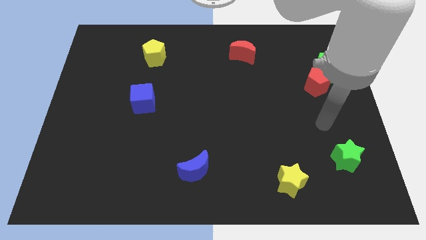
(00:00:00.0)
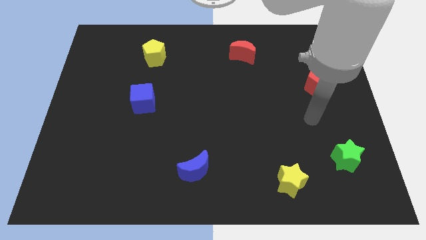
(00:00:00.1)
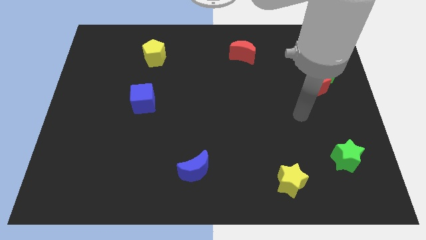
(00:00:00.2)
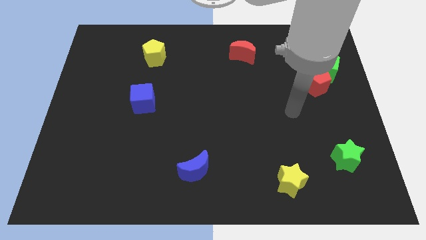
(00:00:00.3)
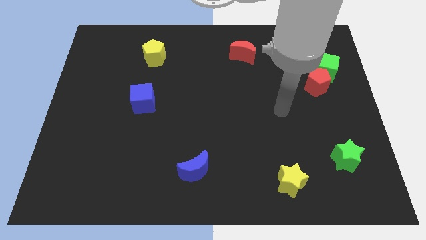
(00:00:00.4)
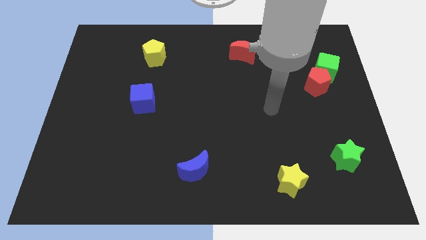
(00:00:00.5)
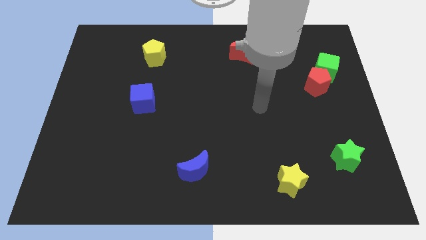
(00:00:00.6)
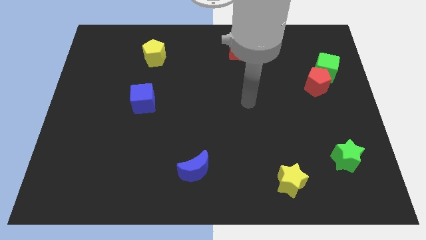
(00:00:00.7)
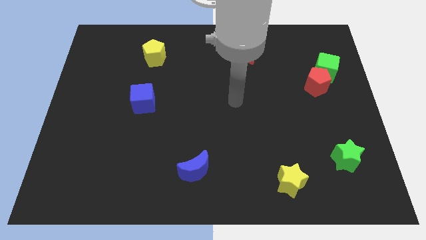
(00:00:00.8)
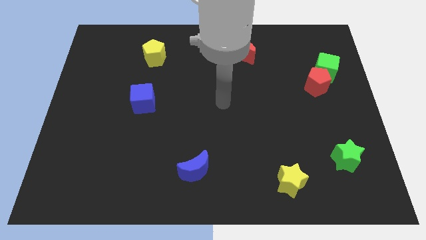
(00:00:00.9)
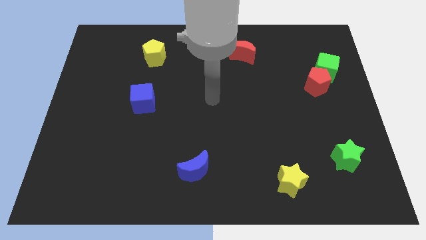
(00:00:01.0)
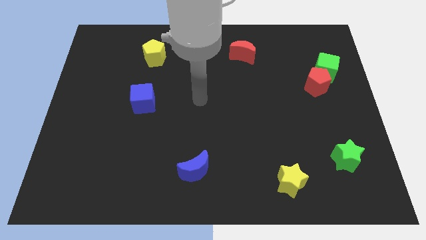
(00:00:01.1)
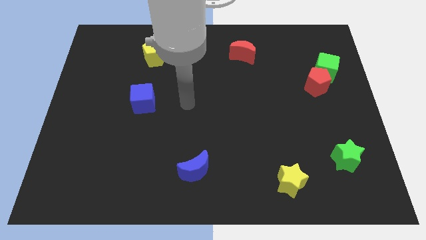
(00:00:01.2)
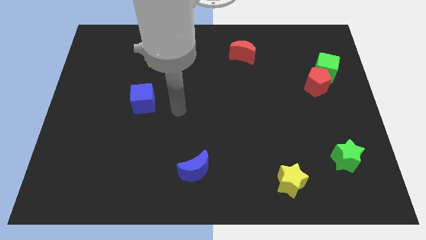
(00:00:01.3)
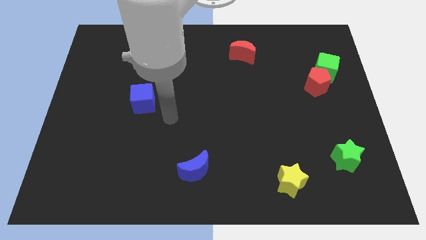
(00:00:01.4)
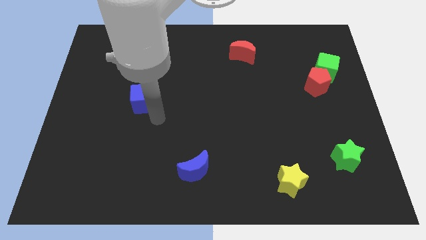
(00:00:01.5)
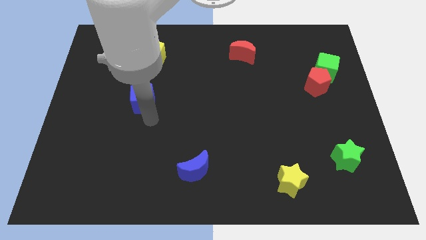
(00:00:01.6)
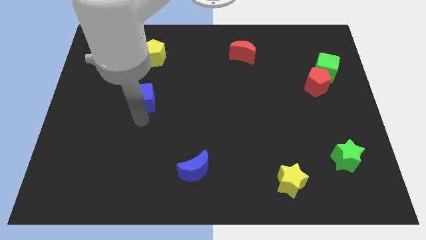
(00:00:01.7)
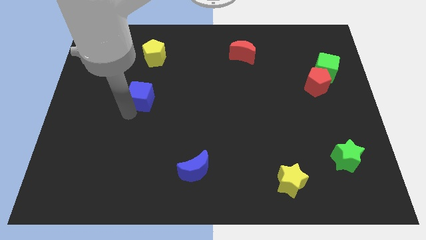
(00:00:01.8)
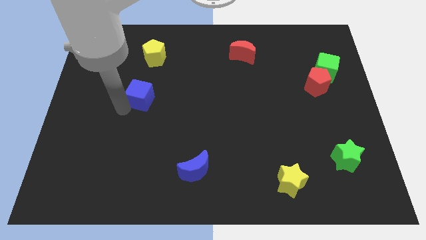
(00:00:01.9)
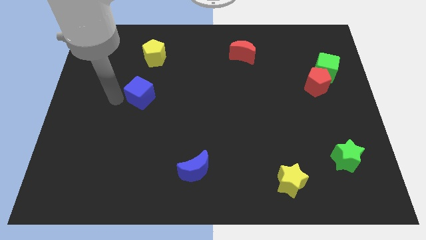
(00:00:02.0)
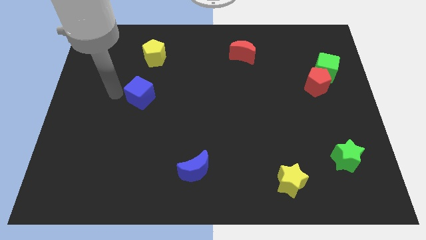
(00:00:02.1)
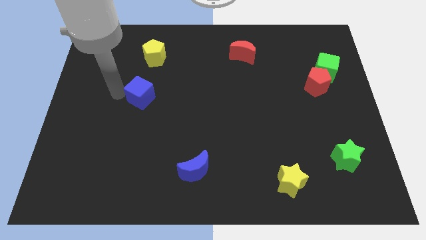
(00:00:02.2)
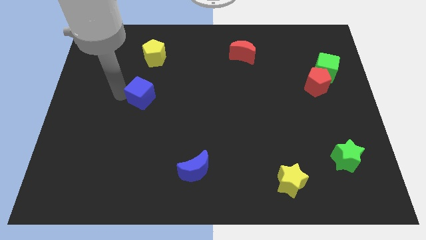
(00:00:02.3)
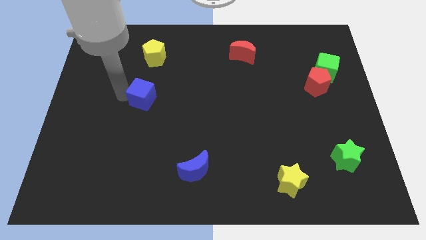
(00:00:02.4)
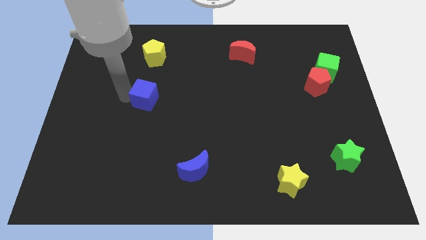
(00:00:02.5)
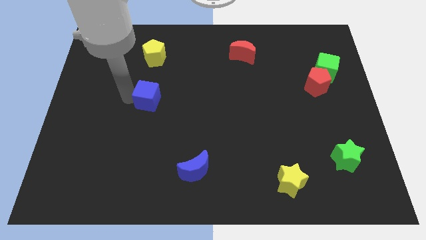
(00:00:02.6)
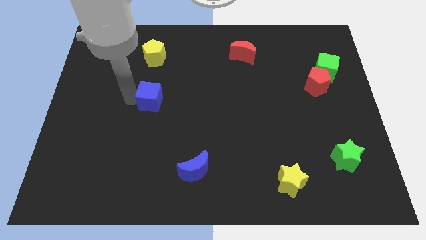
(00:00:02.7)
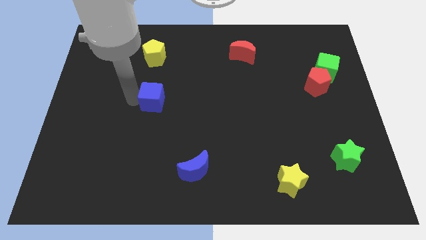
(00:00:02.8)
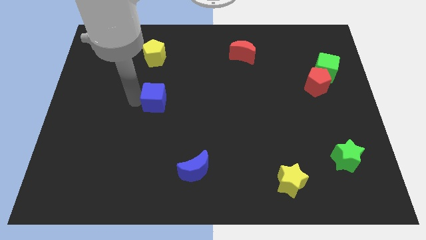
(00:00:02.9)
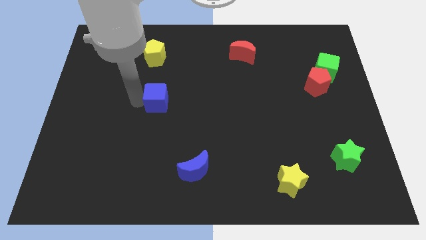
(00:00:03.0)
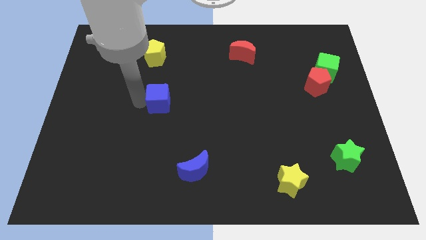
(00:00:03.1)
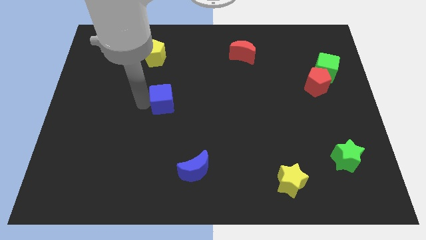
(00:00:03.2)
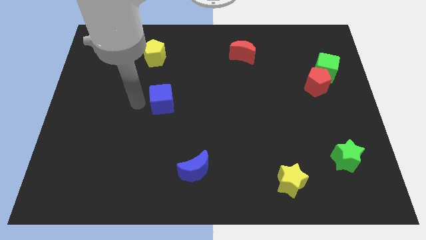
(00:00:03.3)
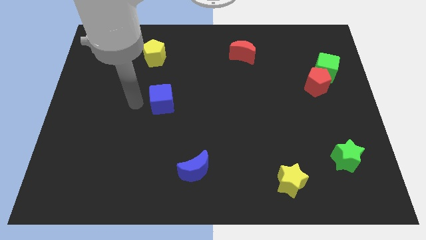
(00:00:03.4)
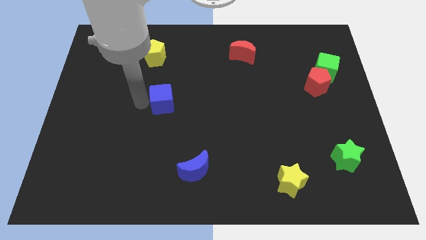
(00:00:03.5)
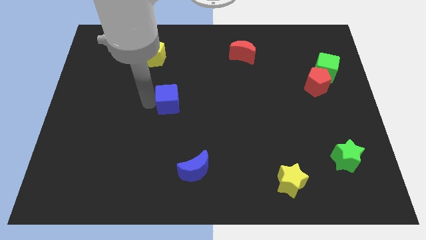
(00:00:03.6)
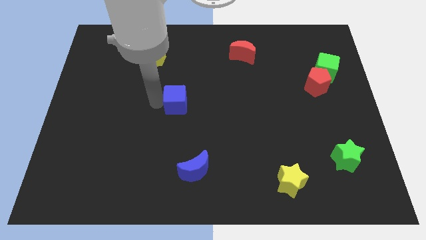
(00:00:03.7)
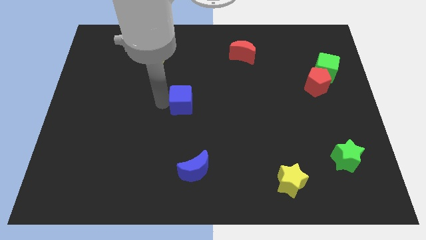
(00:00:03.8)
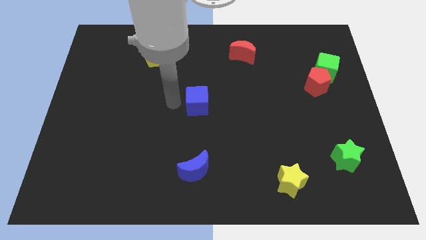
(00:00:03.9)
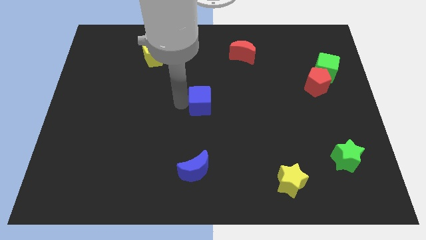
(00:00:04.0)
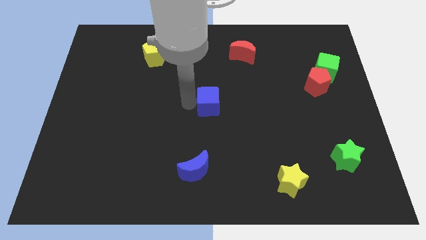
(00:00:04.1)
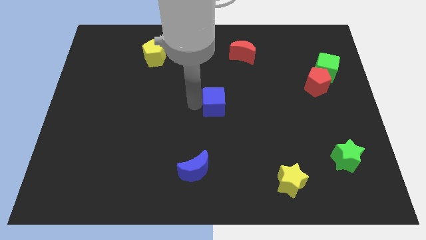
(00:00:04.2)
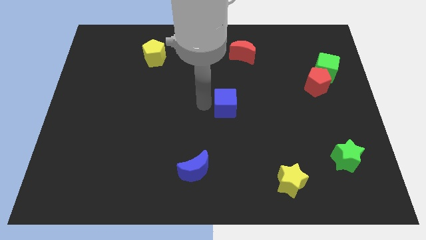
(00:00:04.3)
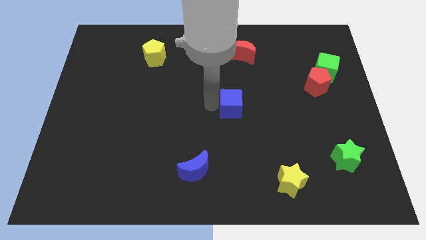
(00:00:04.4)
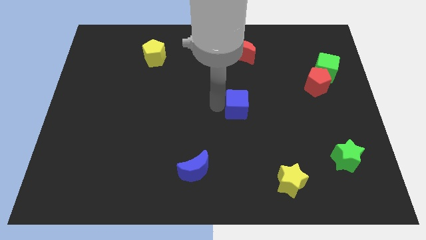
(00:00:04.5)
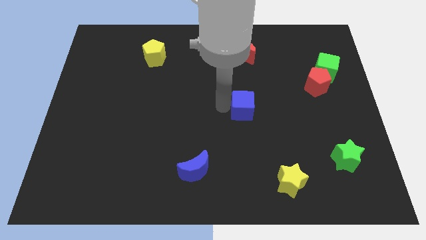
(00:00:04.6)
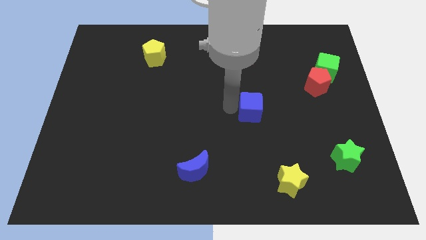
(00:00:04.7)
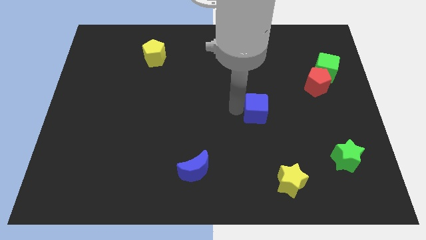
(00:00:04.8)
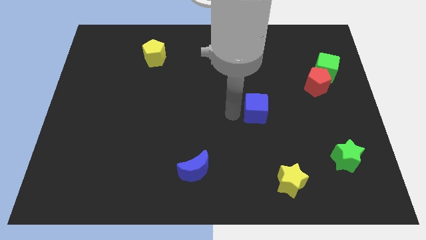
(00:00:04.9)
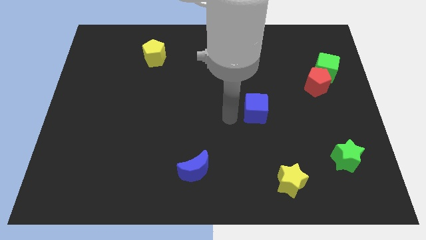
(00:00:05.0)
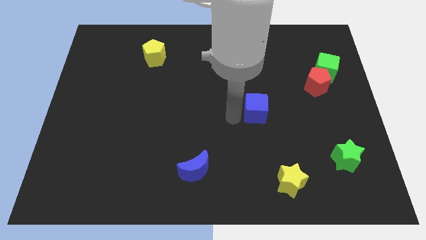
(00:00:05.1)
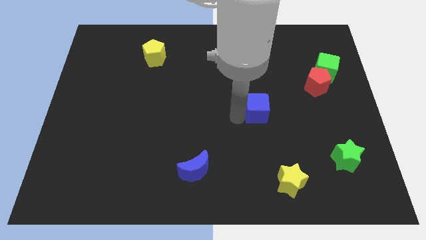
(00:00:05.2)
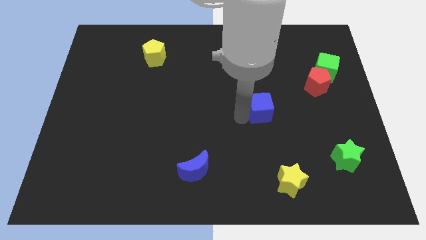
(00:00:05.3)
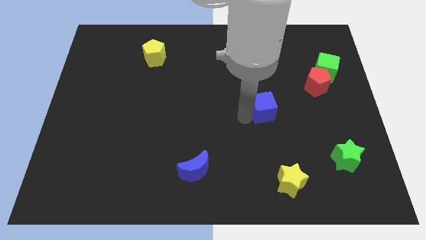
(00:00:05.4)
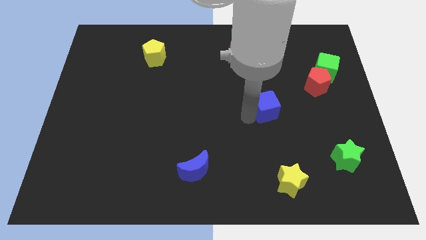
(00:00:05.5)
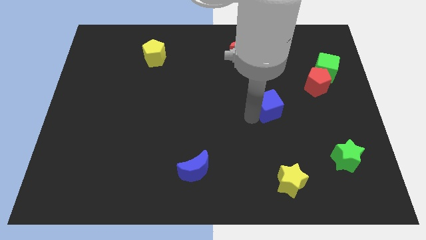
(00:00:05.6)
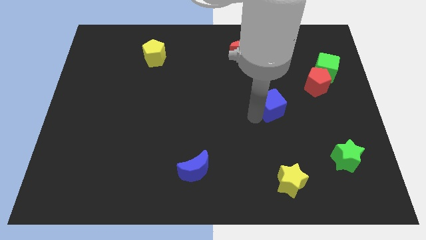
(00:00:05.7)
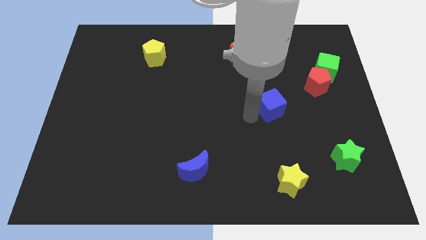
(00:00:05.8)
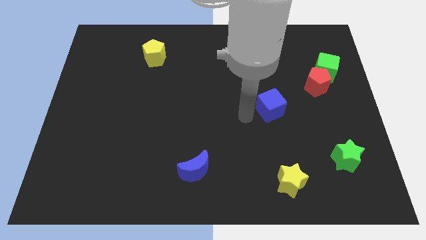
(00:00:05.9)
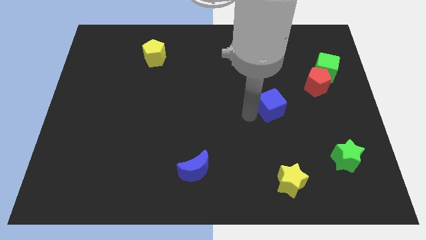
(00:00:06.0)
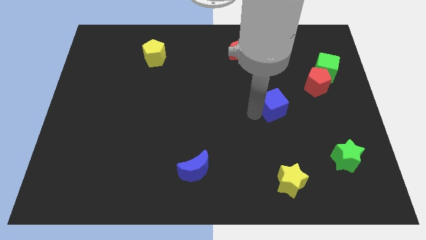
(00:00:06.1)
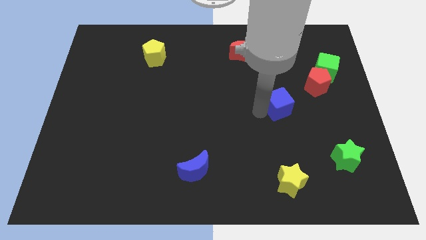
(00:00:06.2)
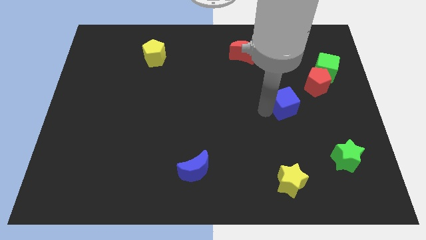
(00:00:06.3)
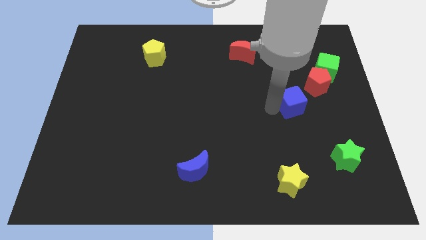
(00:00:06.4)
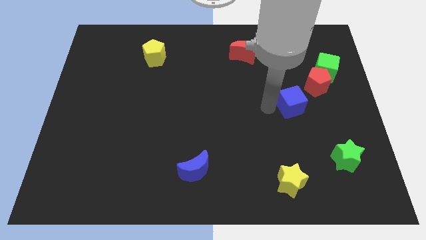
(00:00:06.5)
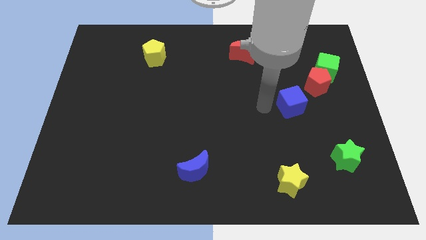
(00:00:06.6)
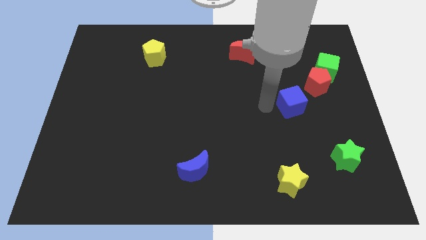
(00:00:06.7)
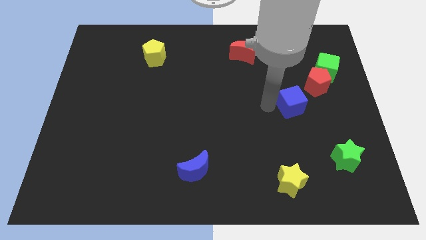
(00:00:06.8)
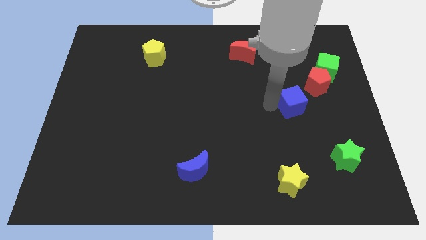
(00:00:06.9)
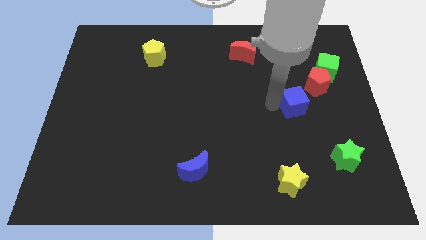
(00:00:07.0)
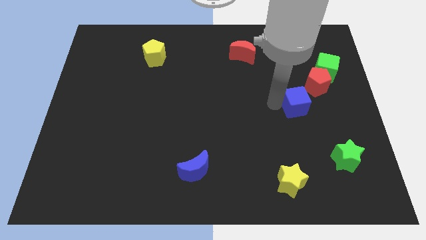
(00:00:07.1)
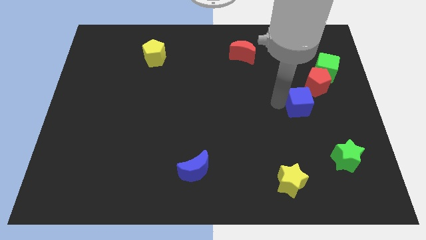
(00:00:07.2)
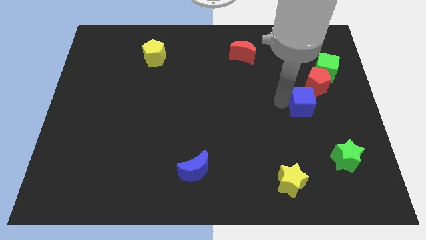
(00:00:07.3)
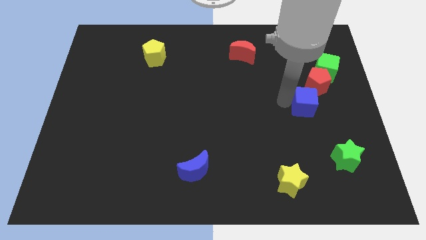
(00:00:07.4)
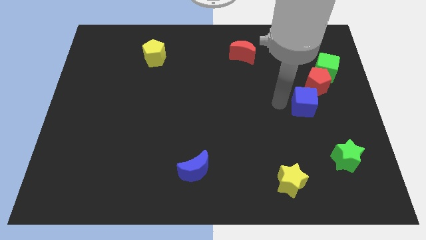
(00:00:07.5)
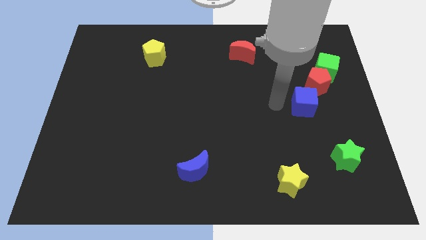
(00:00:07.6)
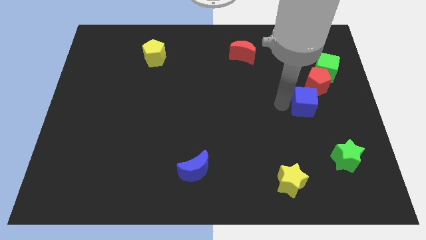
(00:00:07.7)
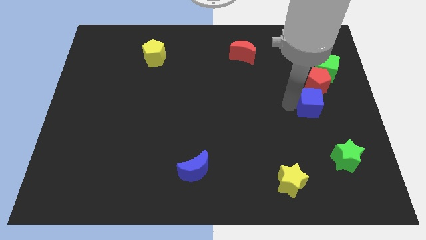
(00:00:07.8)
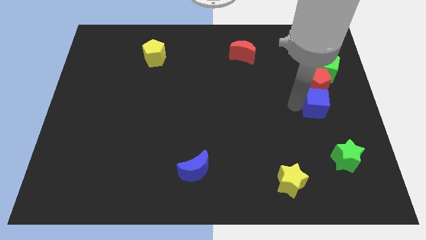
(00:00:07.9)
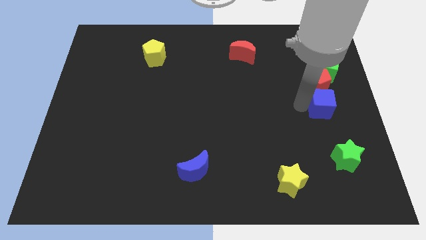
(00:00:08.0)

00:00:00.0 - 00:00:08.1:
move the blue cube to the right side of the board
